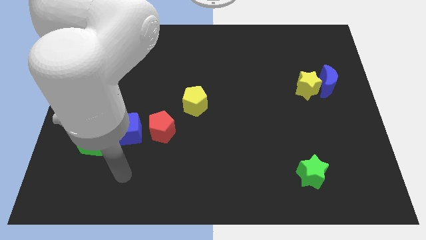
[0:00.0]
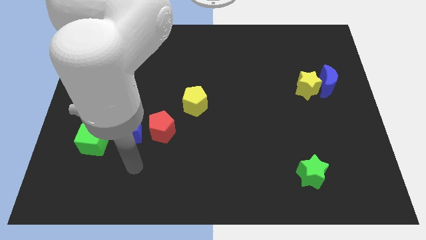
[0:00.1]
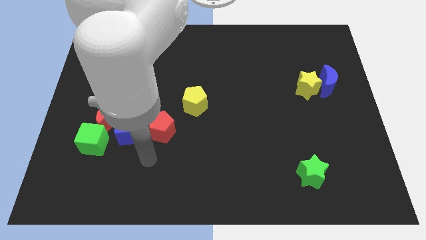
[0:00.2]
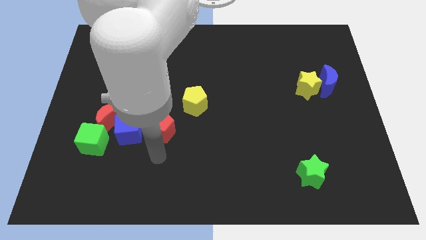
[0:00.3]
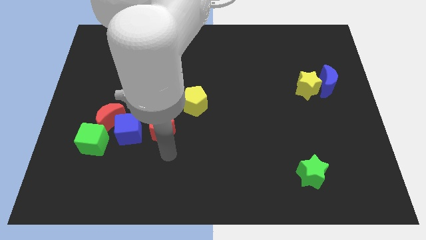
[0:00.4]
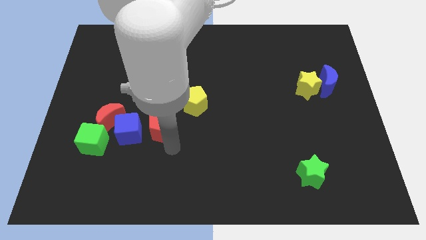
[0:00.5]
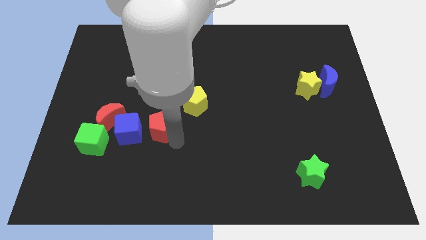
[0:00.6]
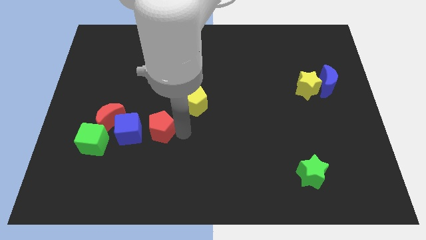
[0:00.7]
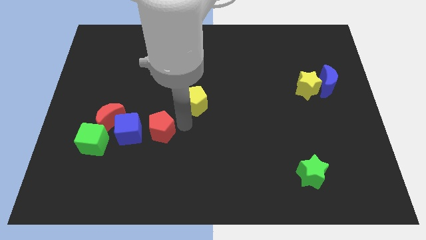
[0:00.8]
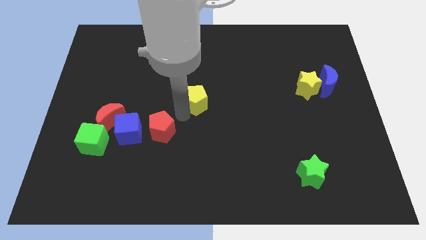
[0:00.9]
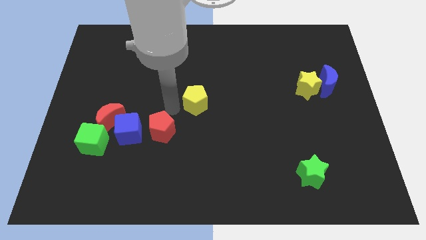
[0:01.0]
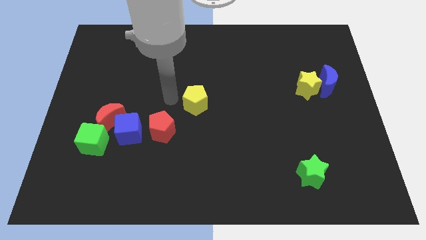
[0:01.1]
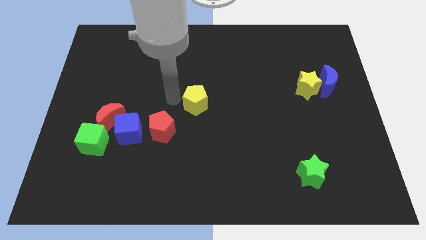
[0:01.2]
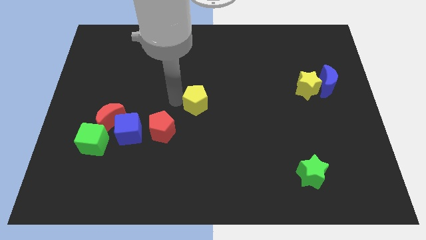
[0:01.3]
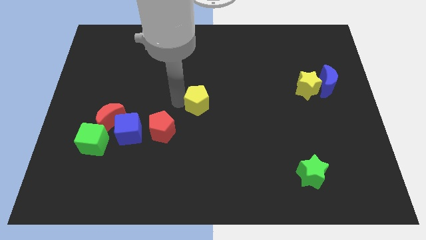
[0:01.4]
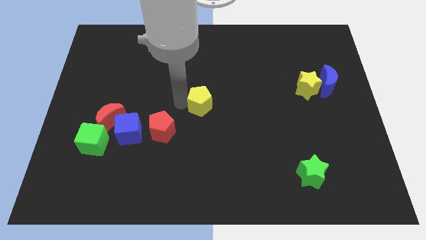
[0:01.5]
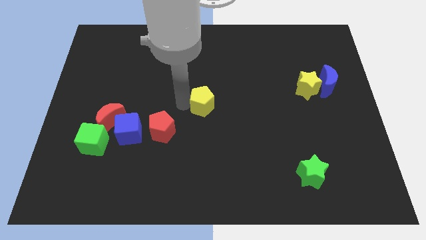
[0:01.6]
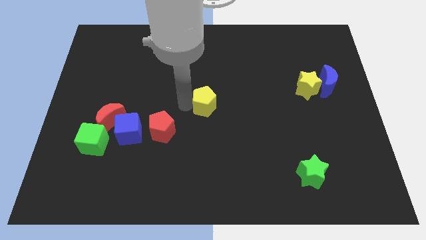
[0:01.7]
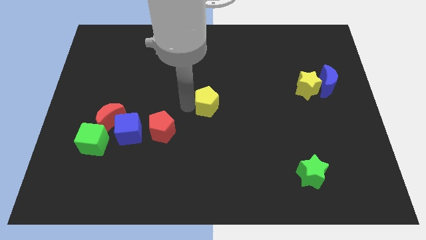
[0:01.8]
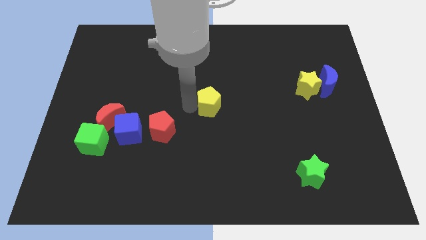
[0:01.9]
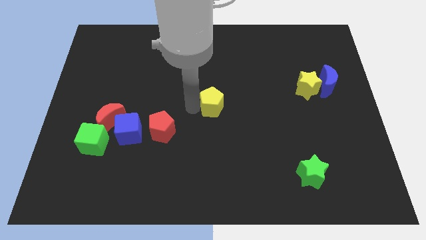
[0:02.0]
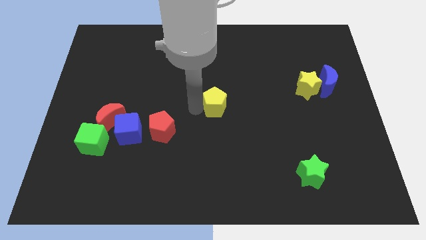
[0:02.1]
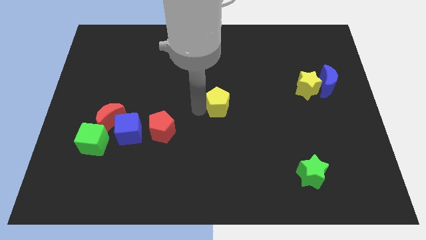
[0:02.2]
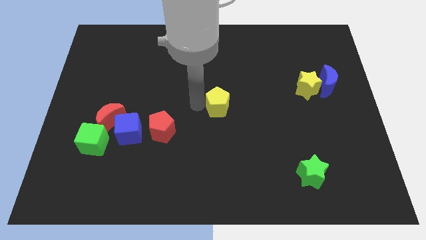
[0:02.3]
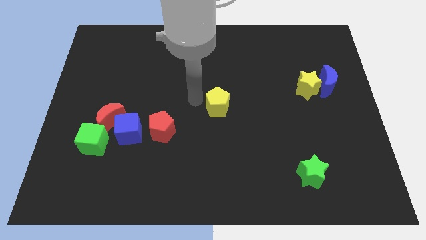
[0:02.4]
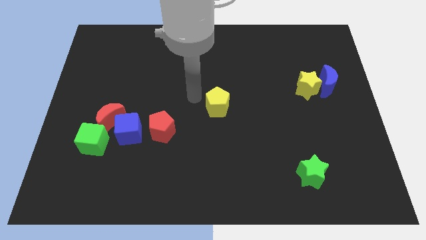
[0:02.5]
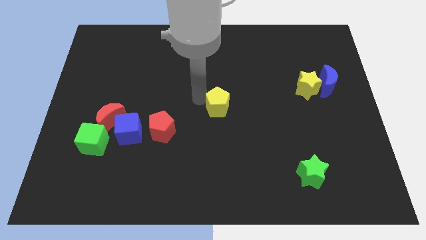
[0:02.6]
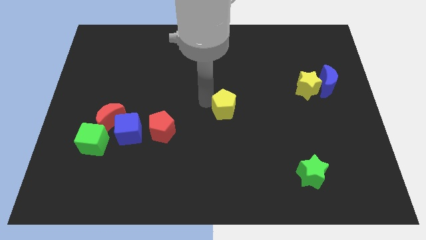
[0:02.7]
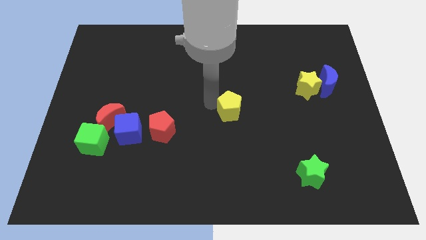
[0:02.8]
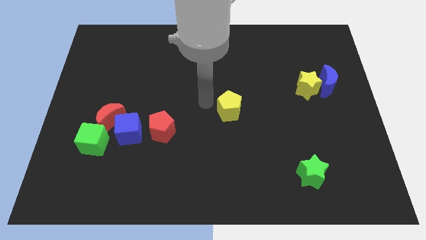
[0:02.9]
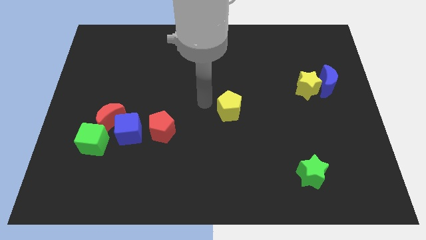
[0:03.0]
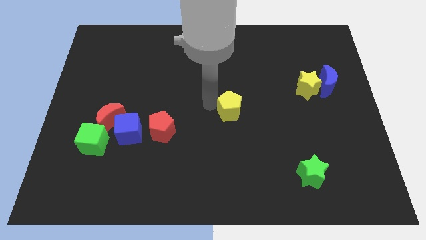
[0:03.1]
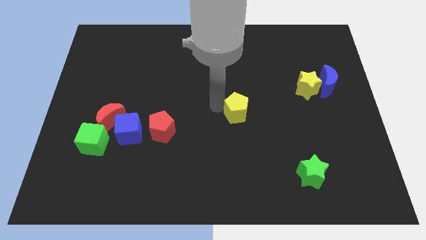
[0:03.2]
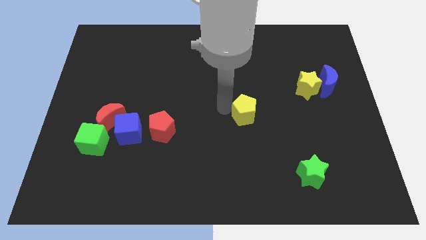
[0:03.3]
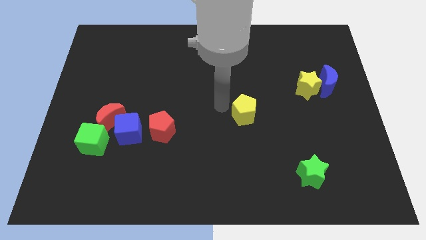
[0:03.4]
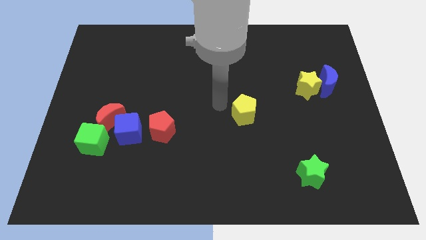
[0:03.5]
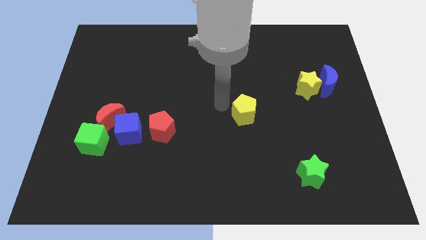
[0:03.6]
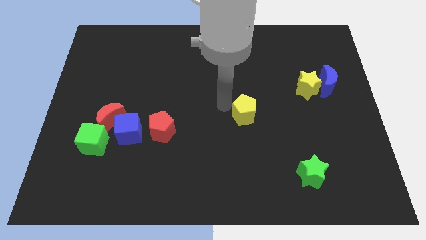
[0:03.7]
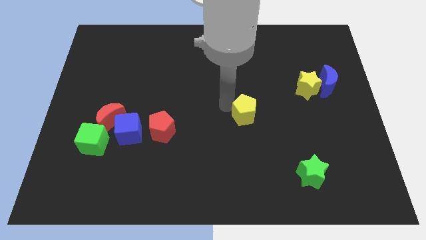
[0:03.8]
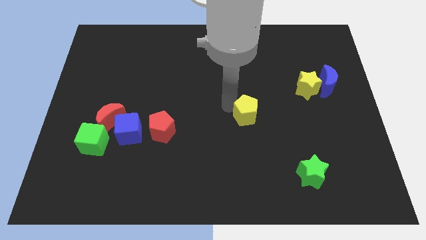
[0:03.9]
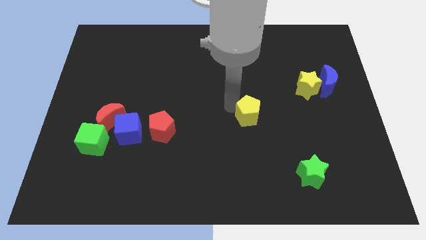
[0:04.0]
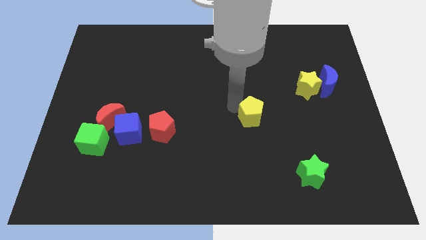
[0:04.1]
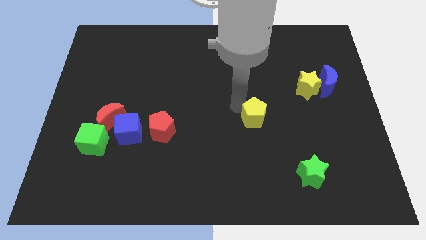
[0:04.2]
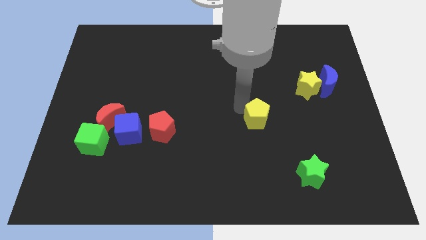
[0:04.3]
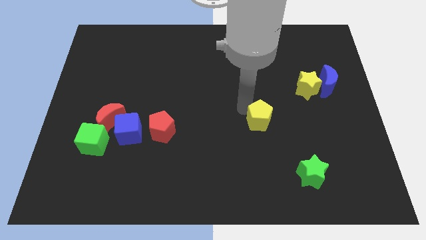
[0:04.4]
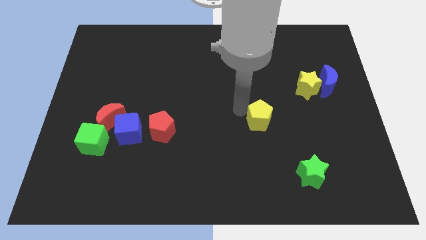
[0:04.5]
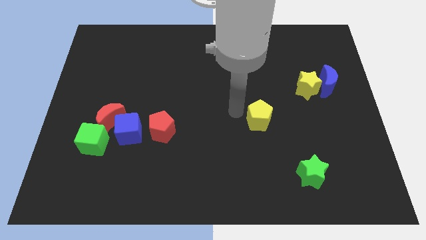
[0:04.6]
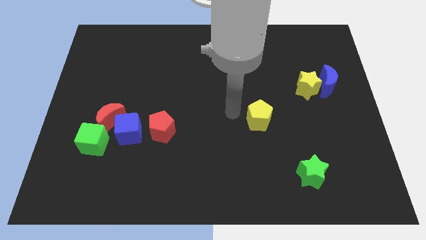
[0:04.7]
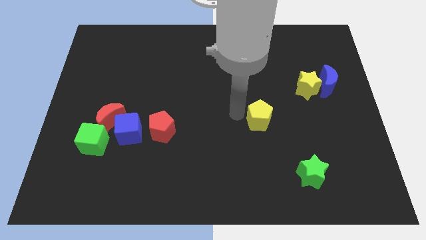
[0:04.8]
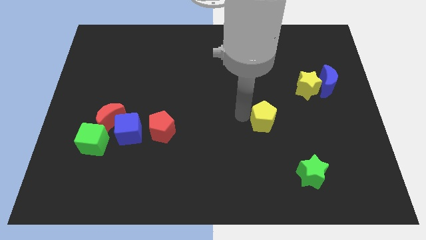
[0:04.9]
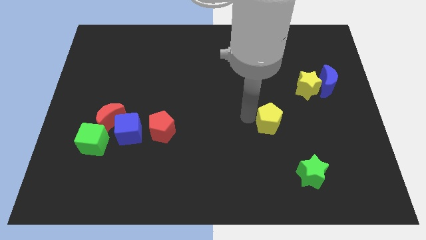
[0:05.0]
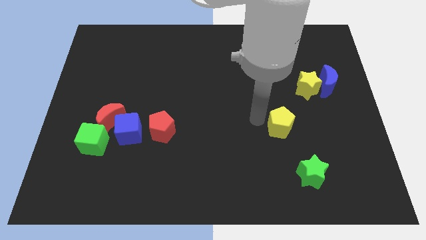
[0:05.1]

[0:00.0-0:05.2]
move the yellow pentagon to the top of the green star

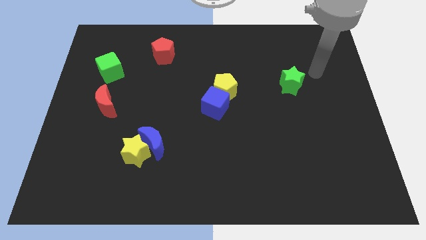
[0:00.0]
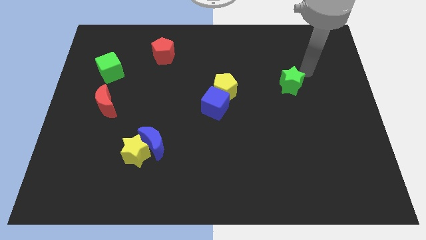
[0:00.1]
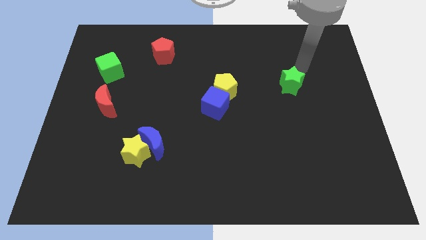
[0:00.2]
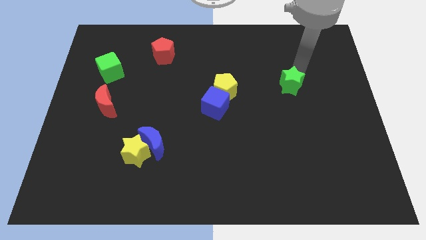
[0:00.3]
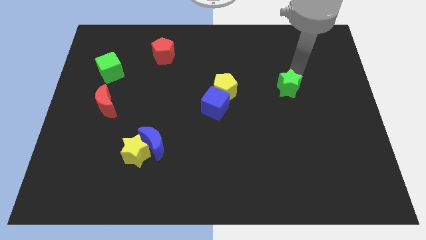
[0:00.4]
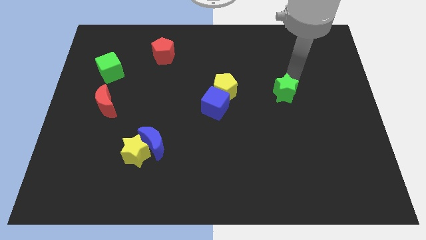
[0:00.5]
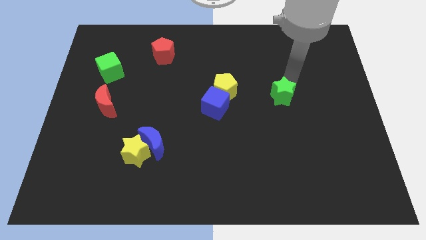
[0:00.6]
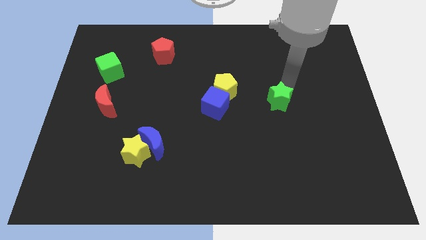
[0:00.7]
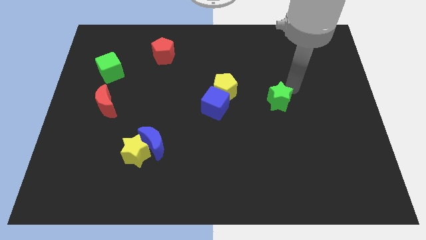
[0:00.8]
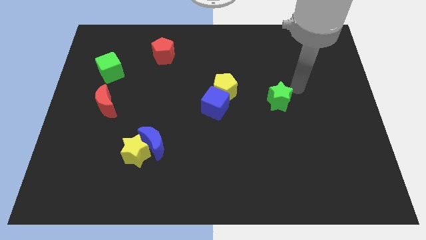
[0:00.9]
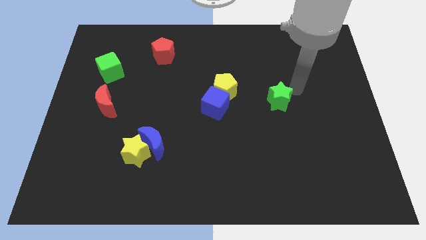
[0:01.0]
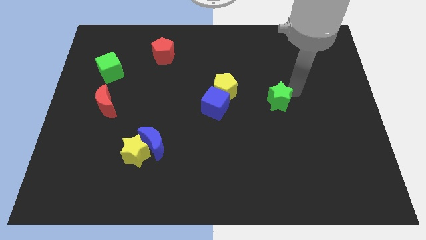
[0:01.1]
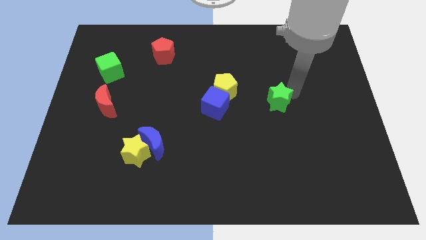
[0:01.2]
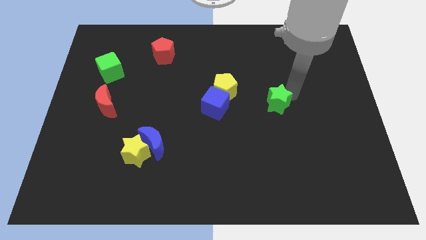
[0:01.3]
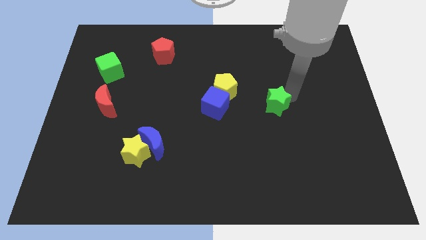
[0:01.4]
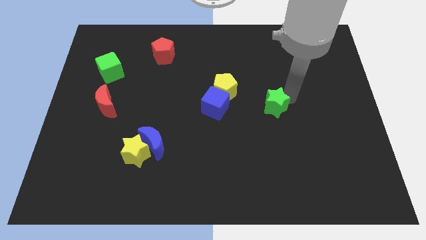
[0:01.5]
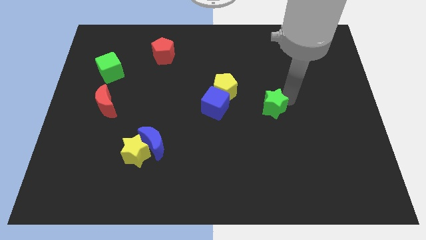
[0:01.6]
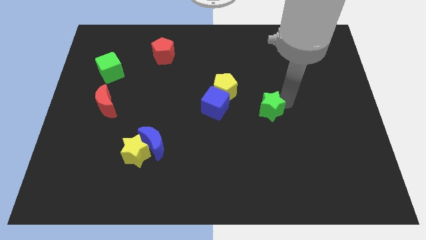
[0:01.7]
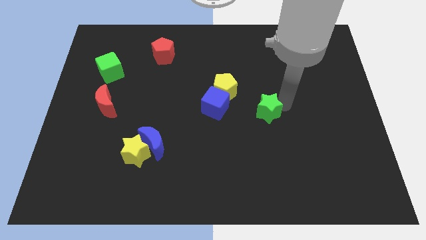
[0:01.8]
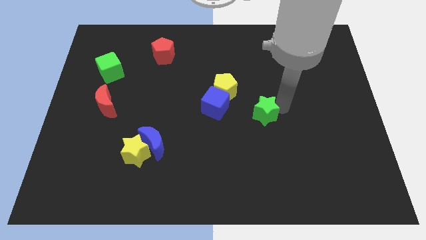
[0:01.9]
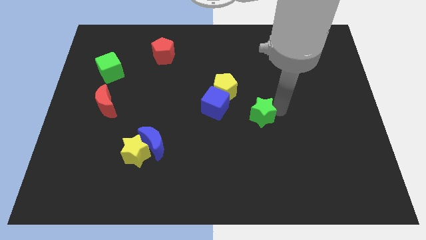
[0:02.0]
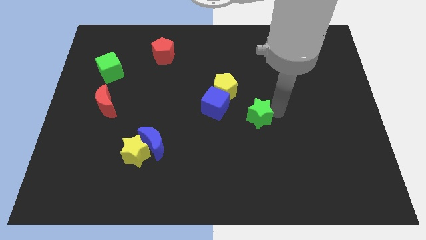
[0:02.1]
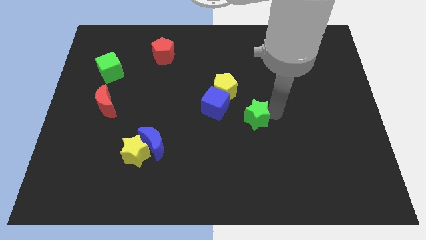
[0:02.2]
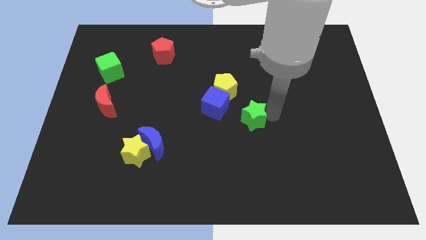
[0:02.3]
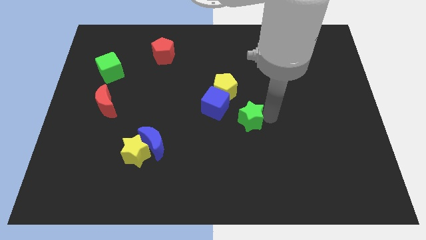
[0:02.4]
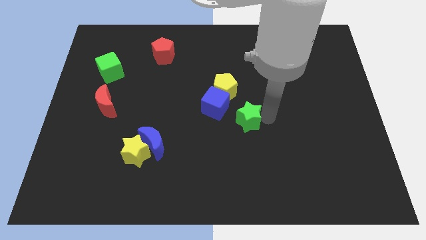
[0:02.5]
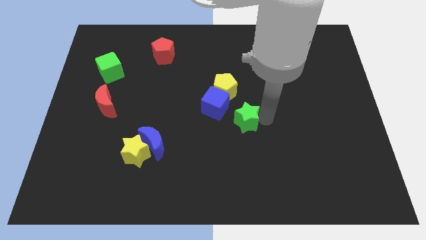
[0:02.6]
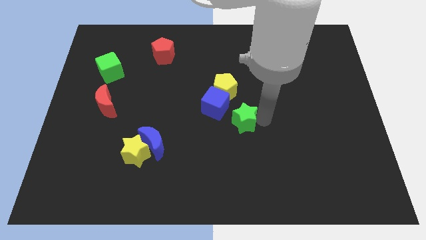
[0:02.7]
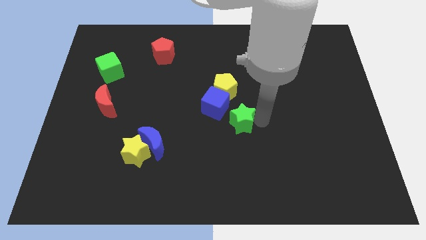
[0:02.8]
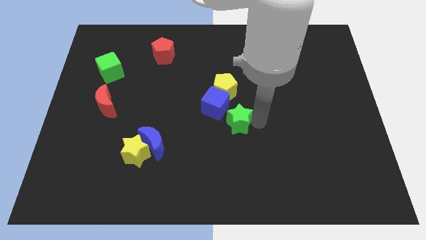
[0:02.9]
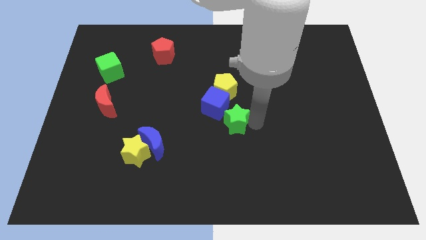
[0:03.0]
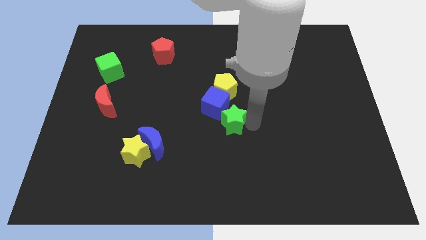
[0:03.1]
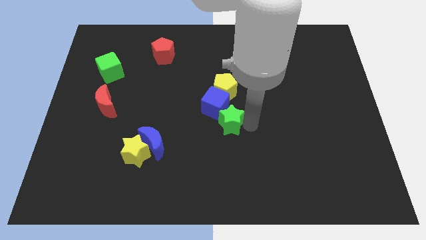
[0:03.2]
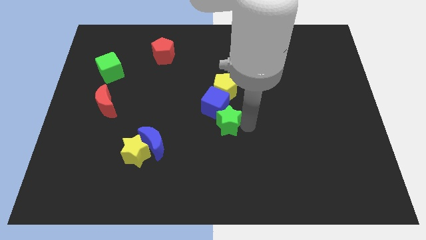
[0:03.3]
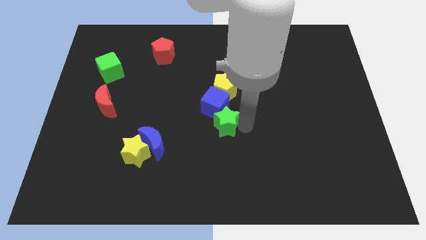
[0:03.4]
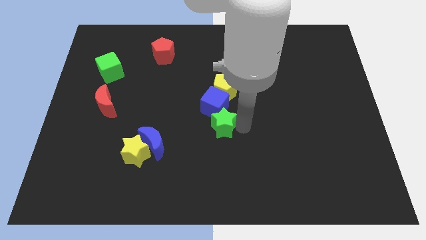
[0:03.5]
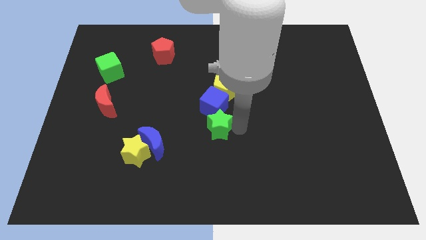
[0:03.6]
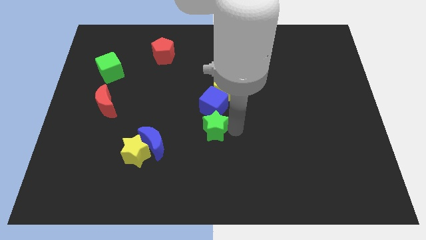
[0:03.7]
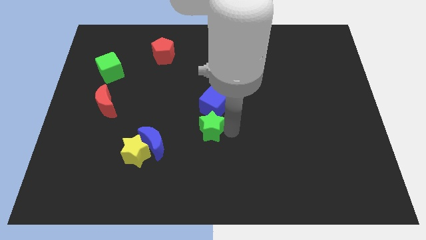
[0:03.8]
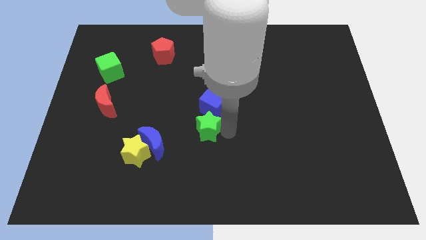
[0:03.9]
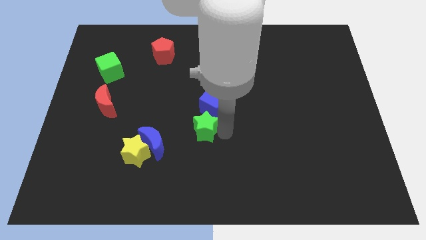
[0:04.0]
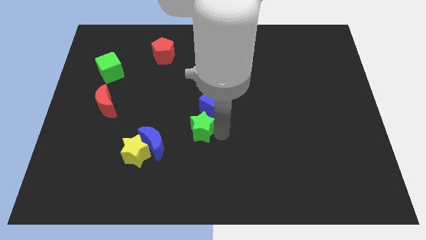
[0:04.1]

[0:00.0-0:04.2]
slide the green star to the top right of the blue moon
